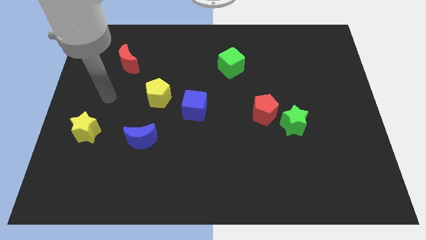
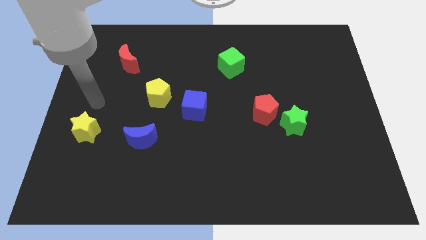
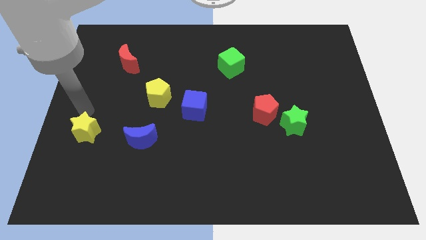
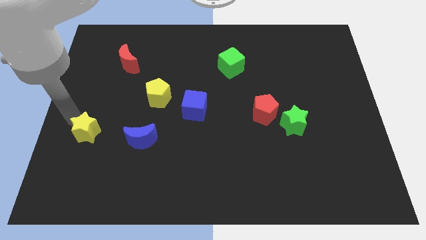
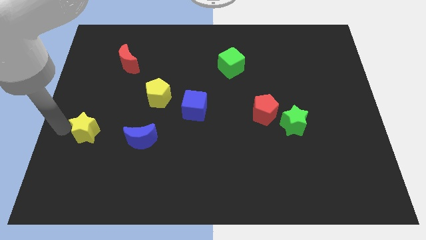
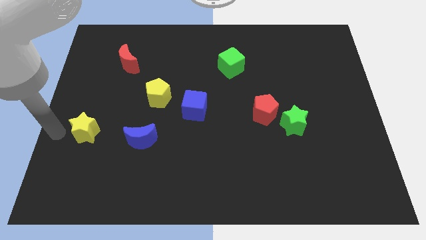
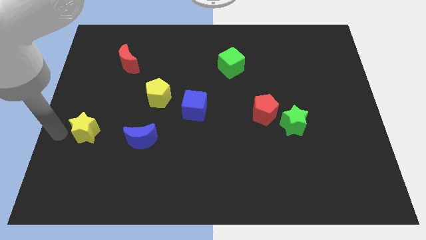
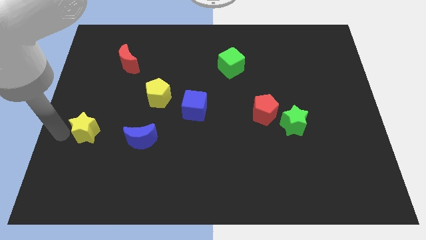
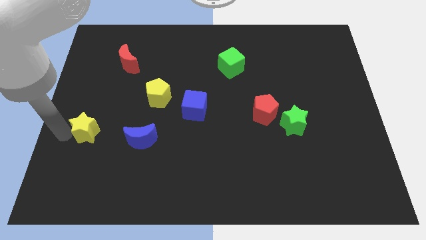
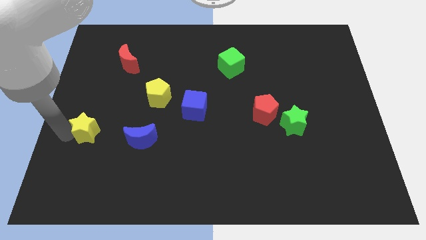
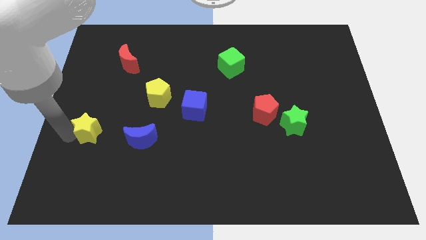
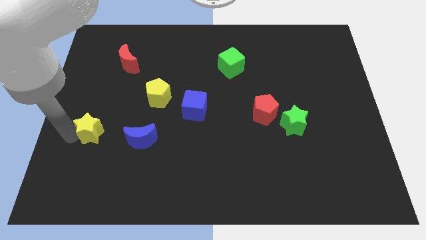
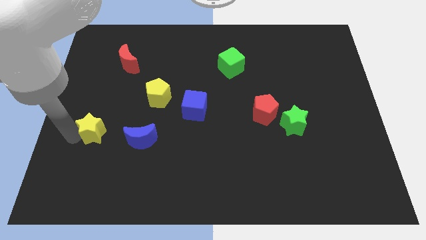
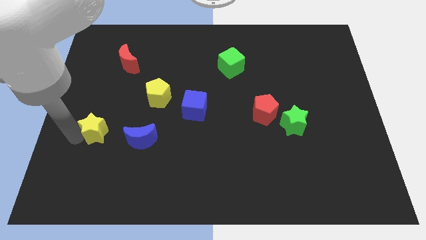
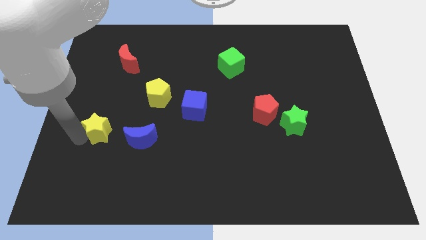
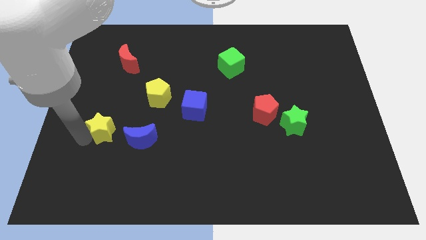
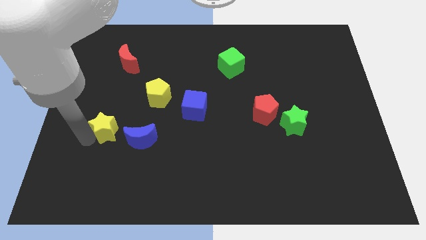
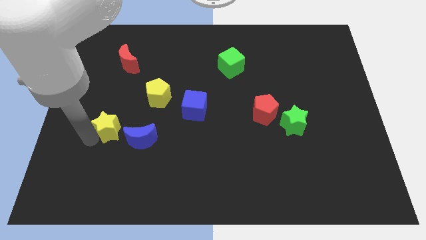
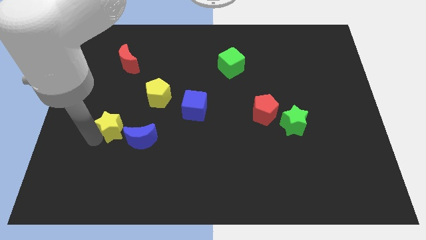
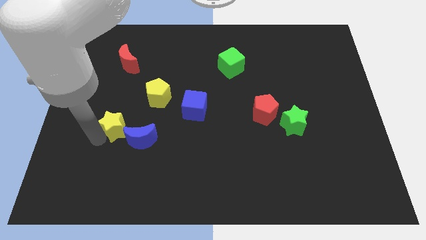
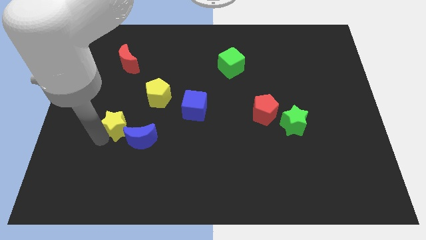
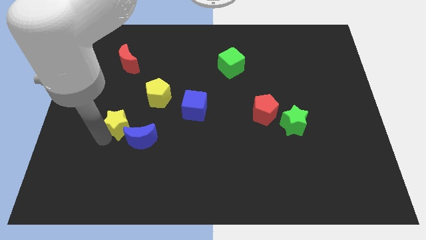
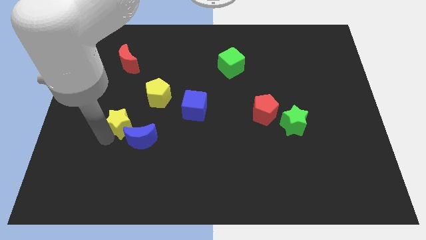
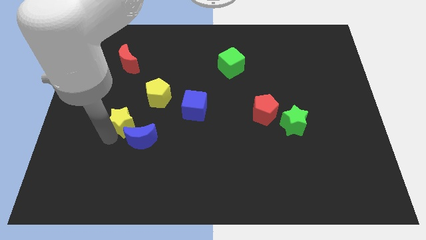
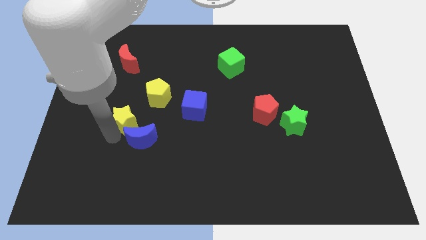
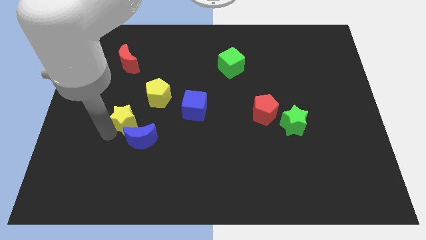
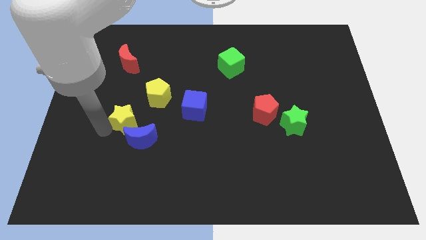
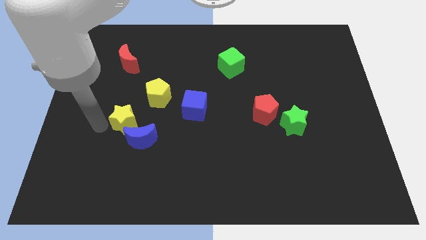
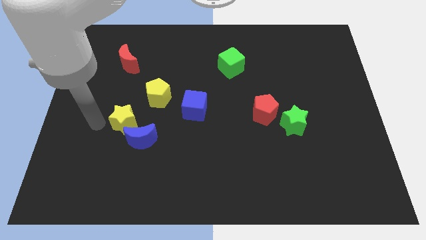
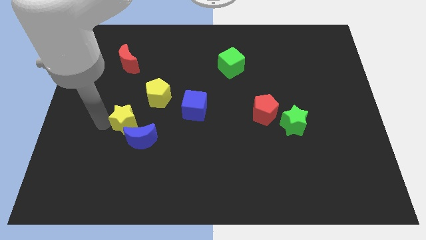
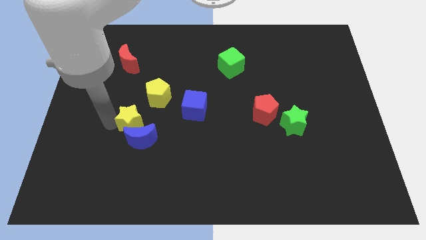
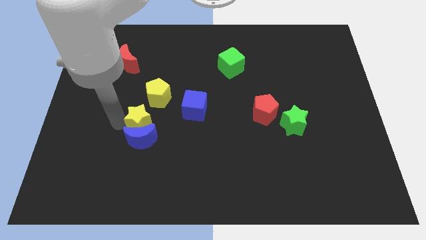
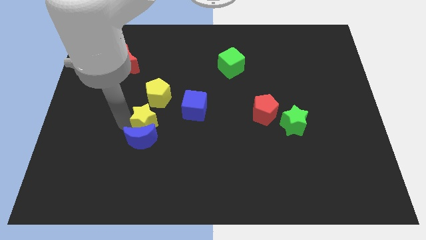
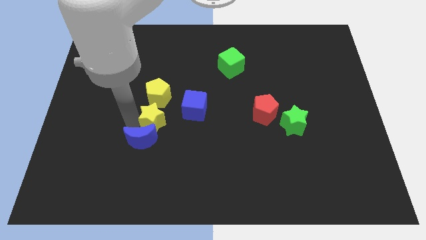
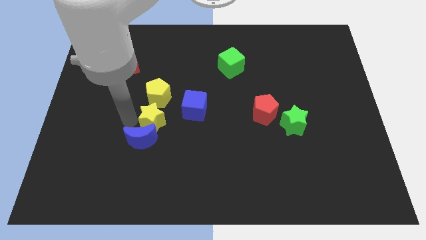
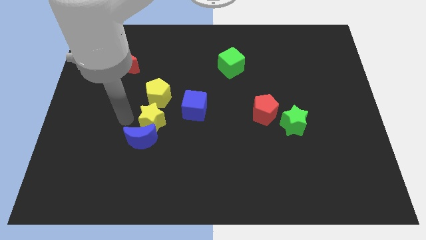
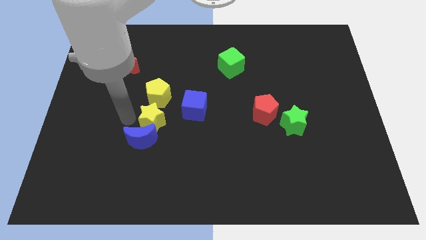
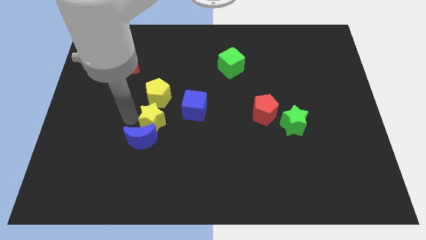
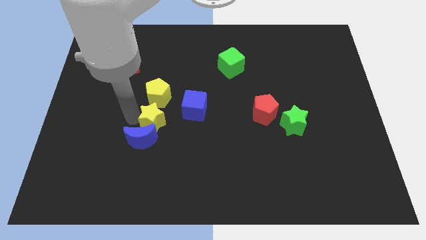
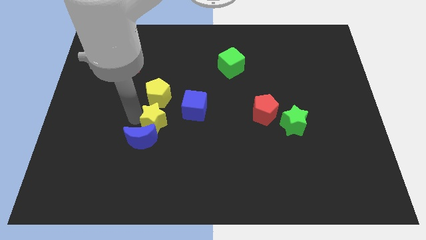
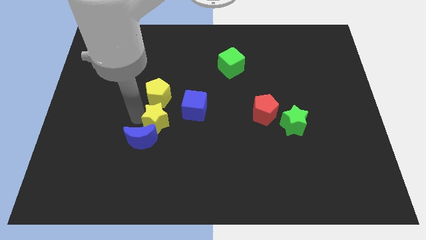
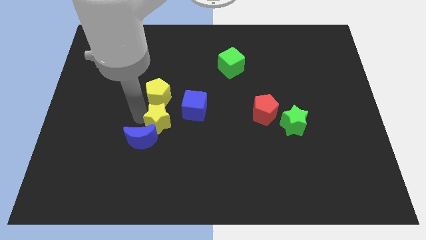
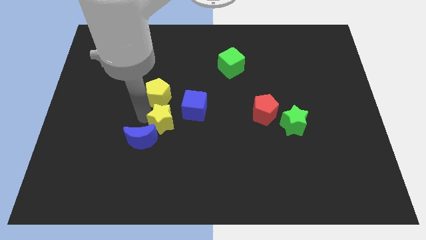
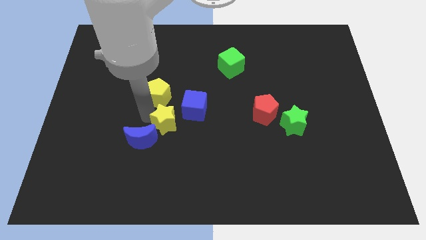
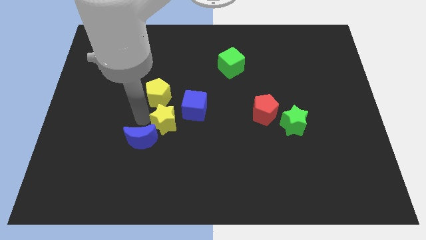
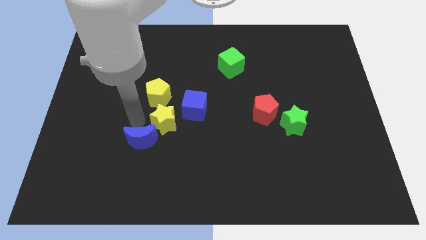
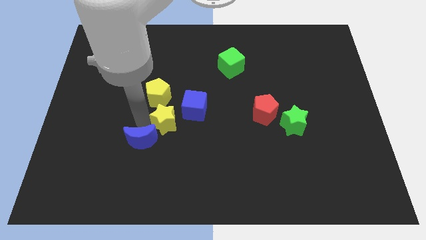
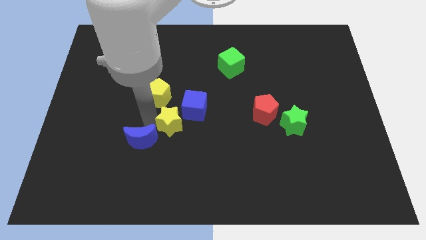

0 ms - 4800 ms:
move the yellow star to the middle of the board

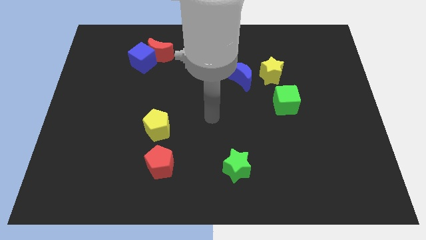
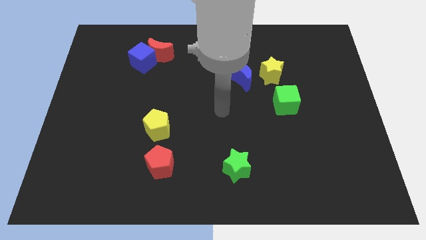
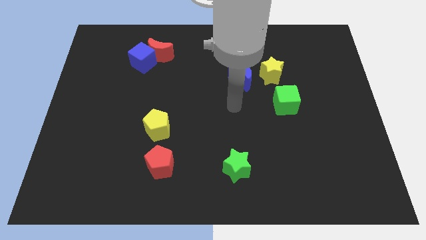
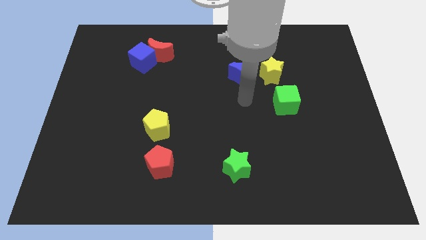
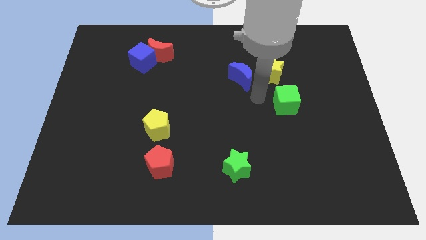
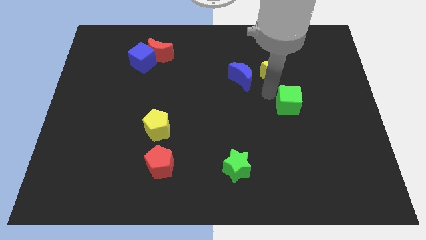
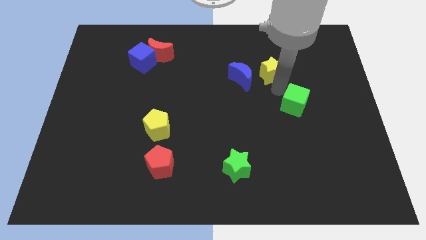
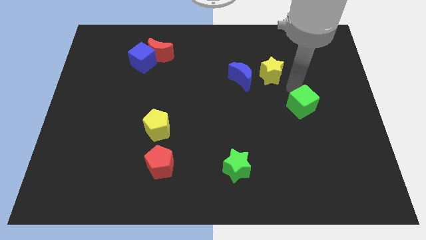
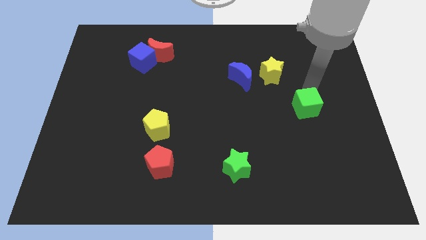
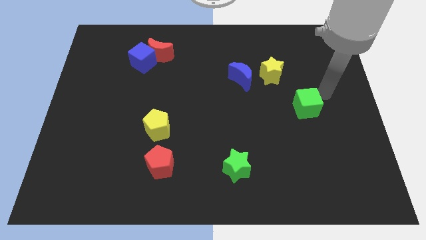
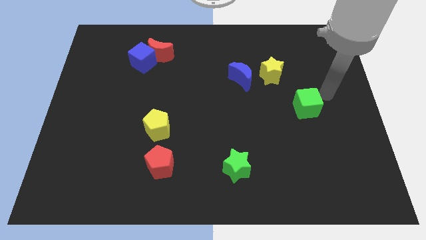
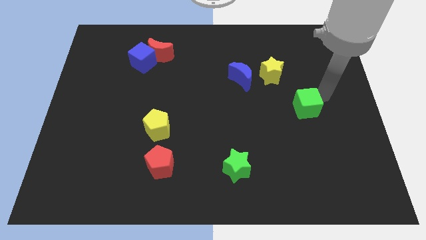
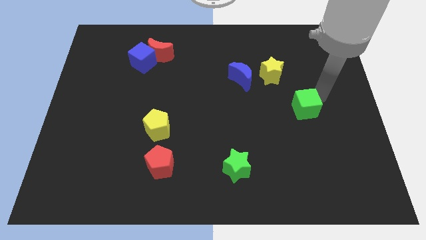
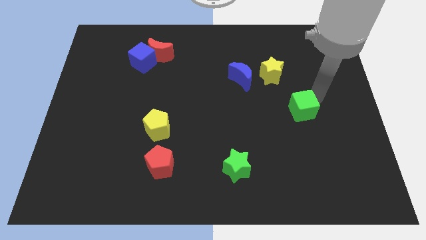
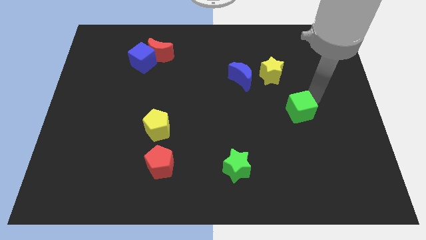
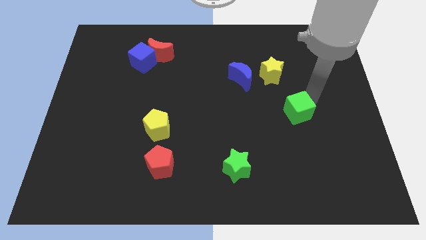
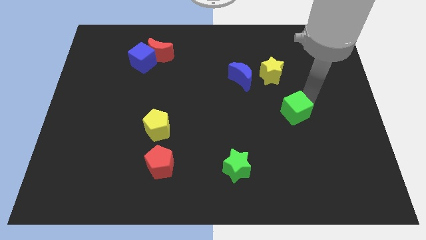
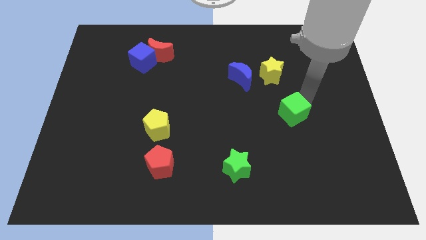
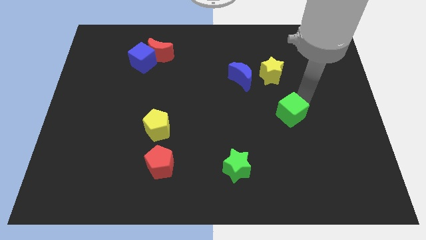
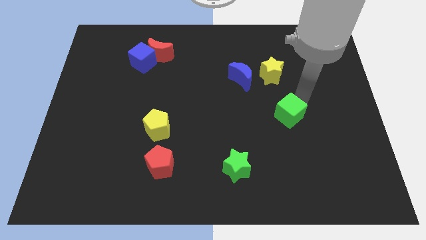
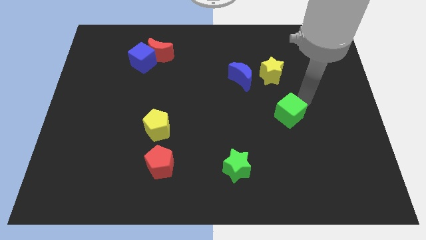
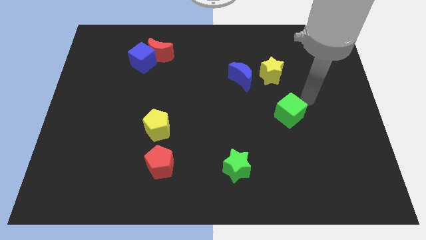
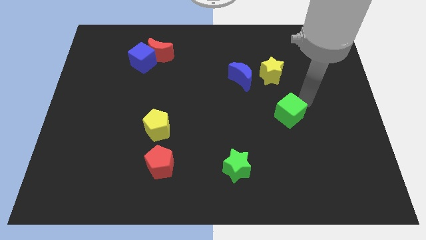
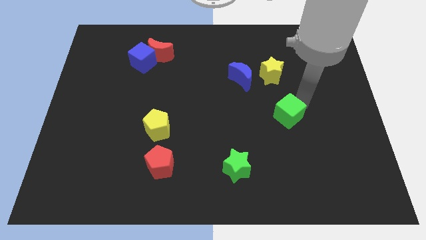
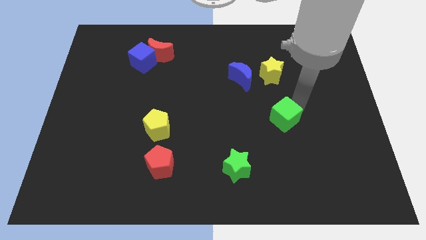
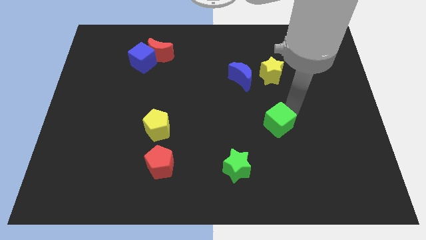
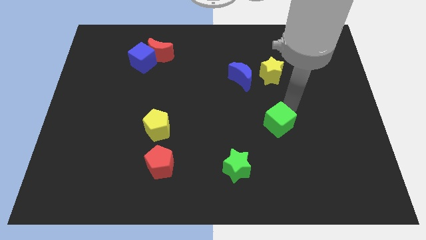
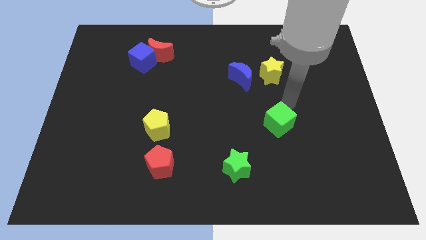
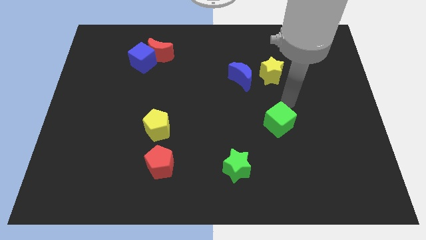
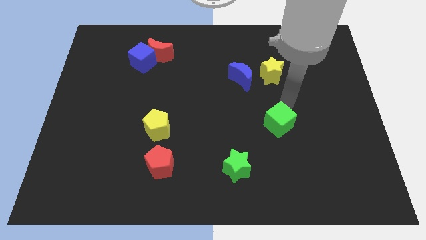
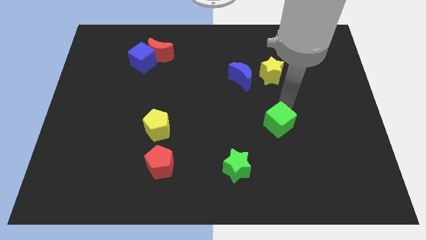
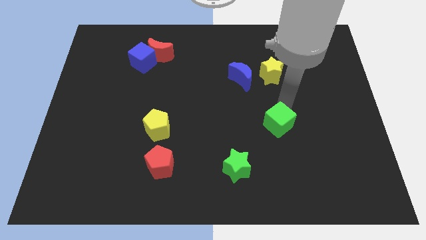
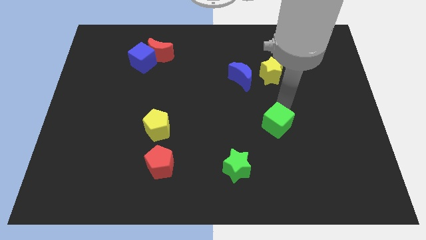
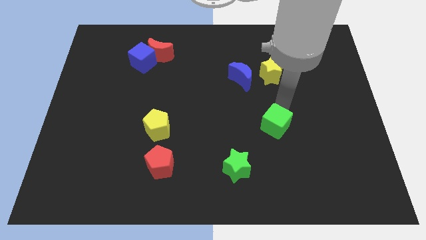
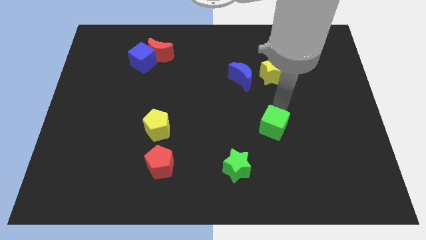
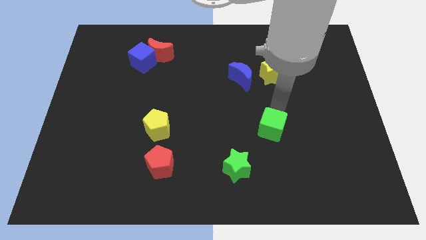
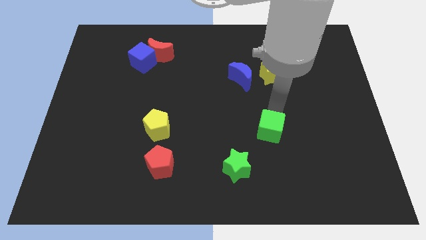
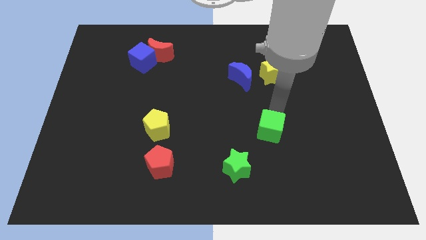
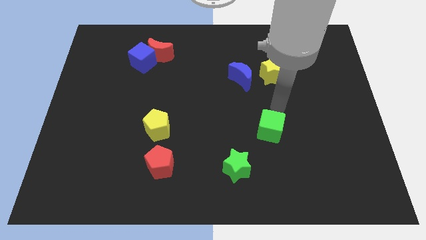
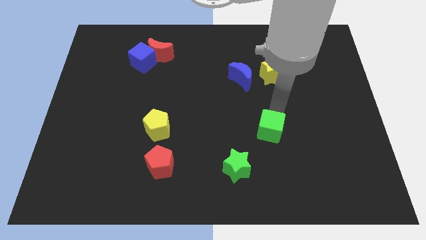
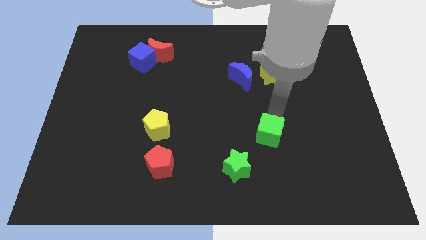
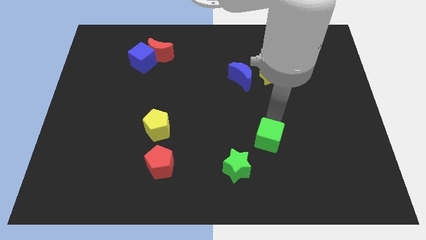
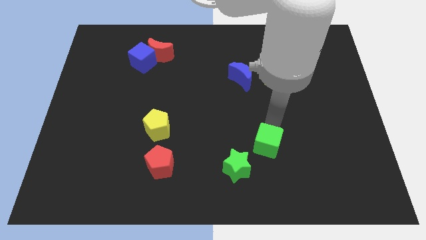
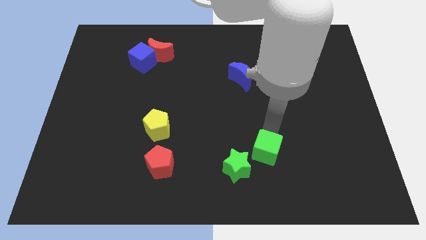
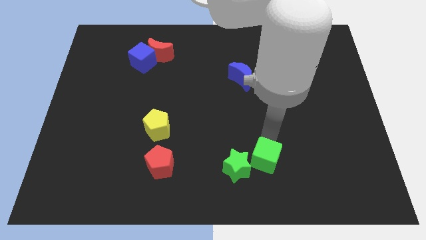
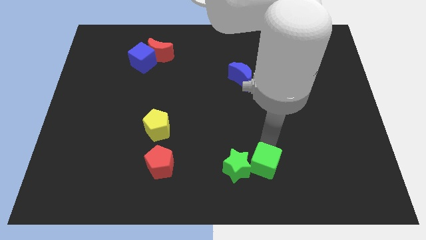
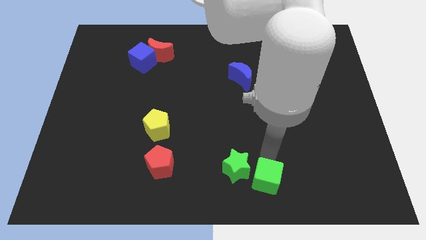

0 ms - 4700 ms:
push the green cube to the bottom
